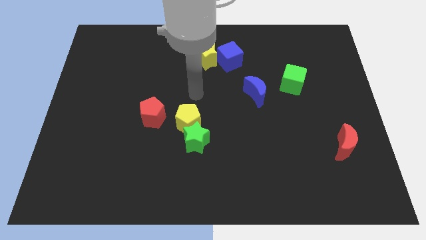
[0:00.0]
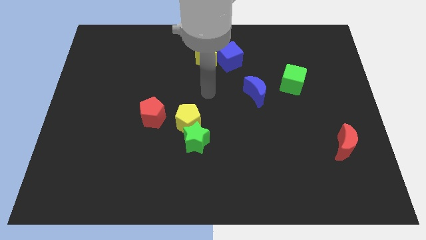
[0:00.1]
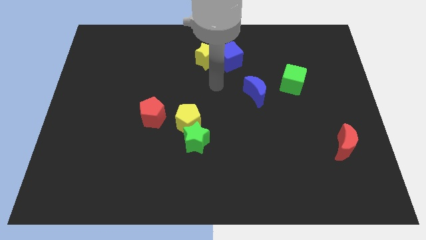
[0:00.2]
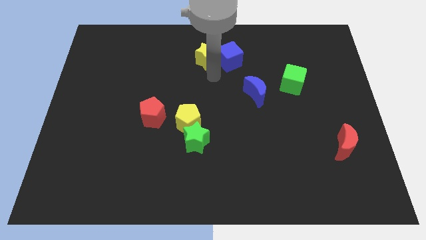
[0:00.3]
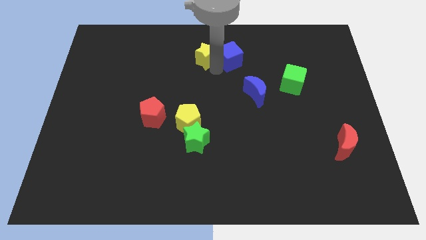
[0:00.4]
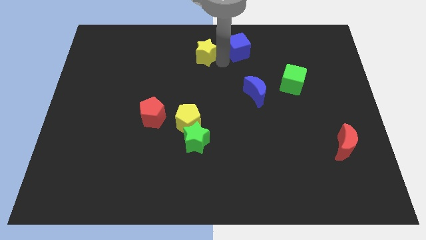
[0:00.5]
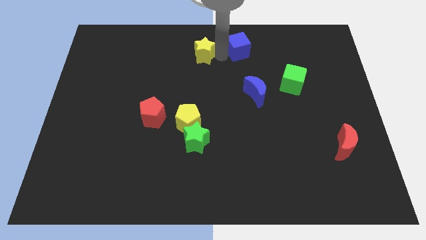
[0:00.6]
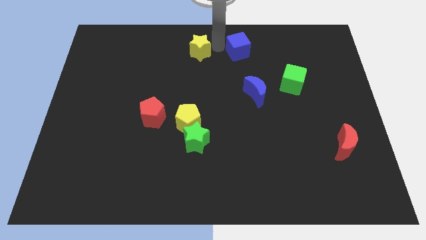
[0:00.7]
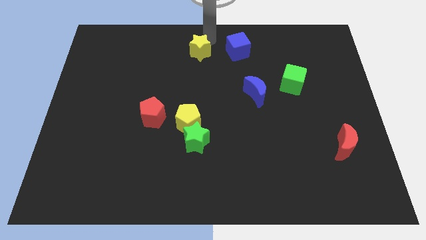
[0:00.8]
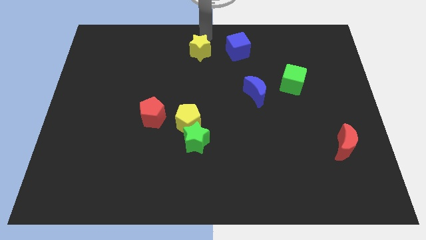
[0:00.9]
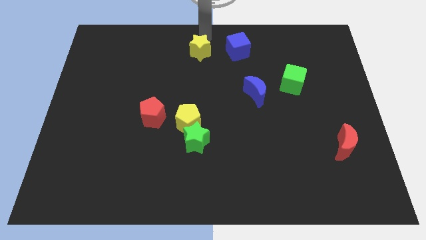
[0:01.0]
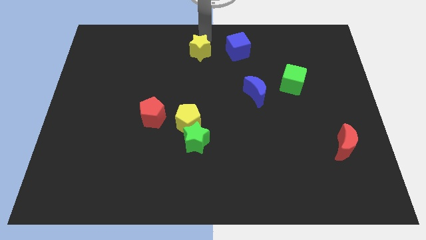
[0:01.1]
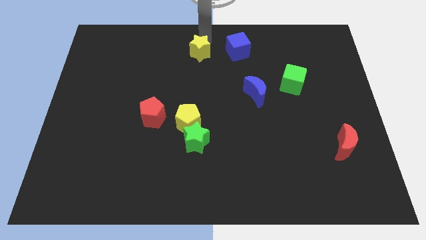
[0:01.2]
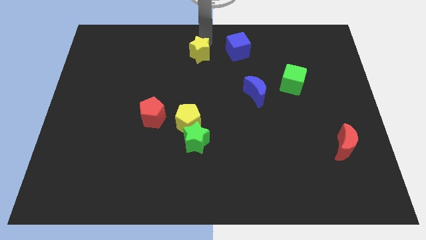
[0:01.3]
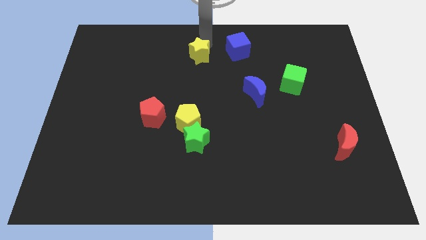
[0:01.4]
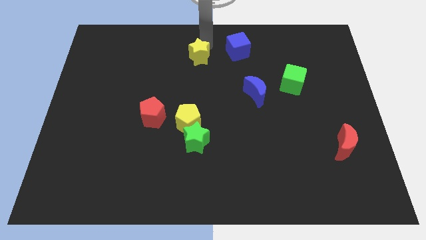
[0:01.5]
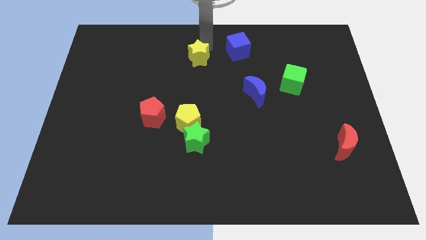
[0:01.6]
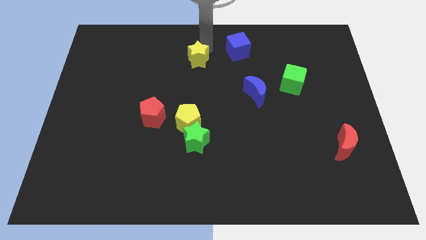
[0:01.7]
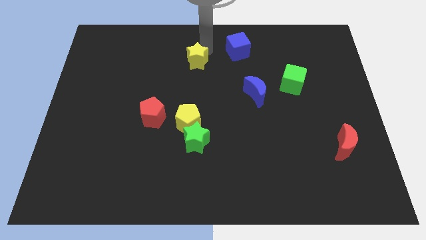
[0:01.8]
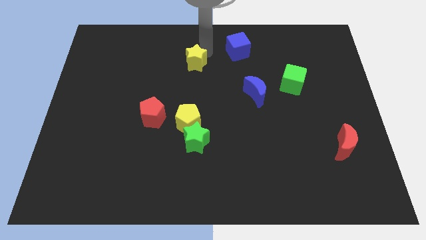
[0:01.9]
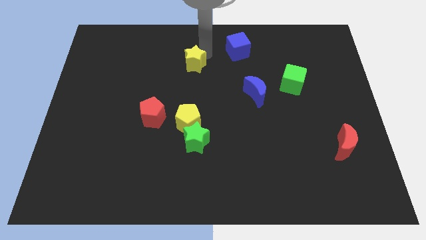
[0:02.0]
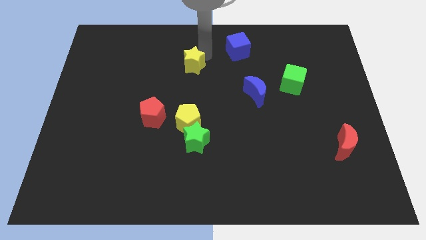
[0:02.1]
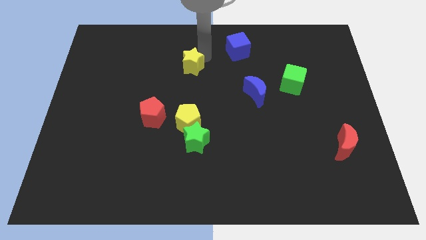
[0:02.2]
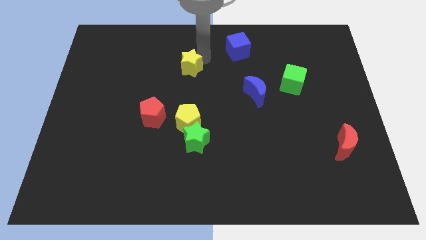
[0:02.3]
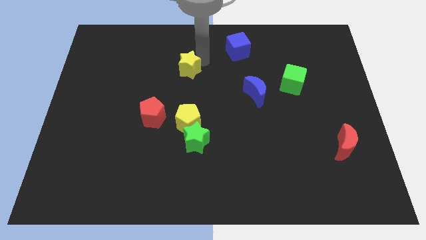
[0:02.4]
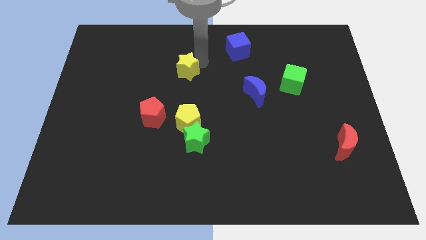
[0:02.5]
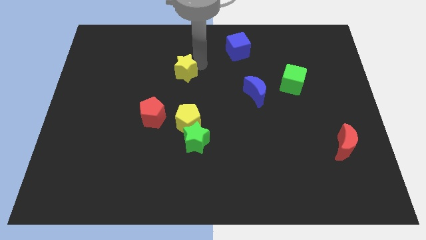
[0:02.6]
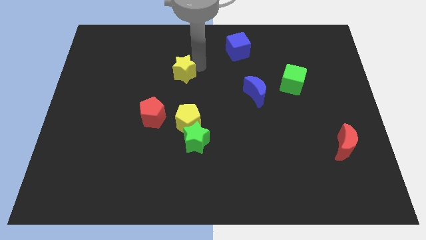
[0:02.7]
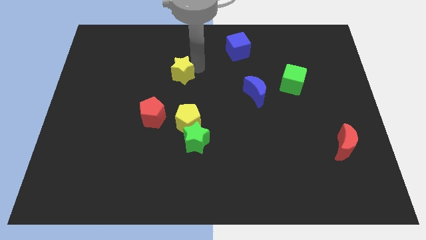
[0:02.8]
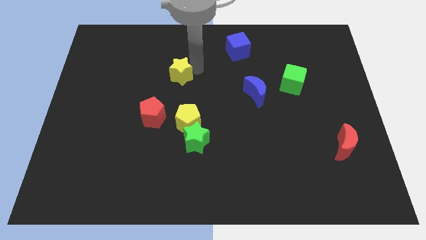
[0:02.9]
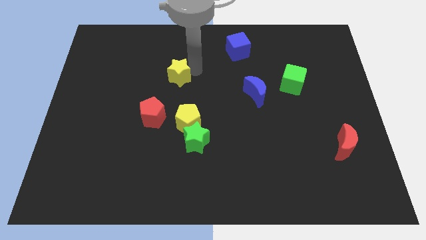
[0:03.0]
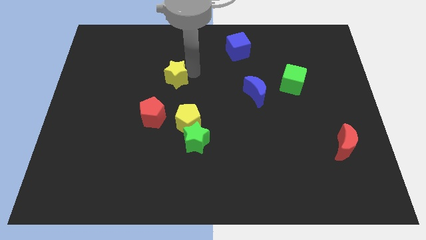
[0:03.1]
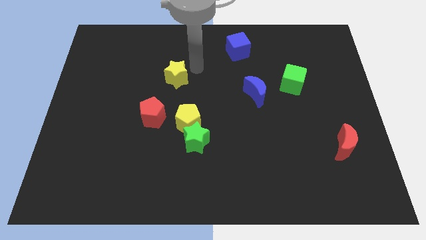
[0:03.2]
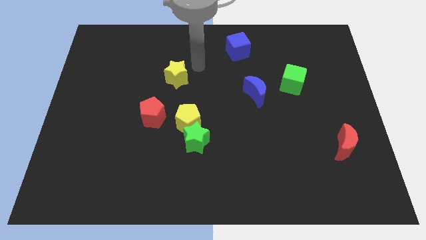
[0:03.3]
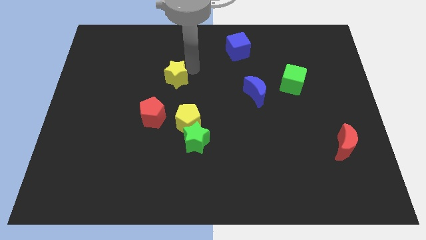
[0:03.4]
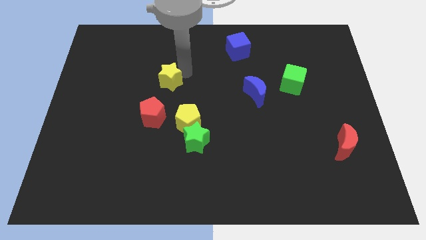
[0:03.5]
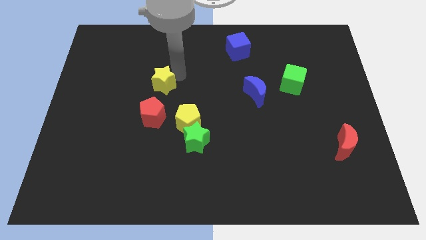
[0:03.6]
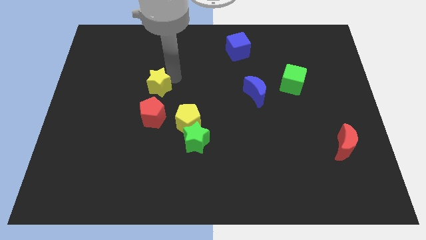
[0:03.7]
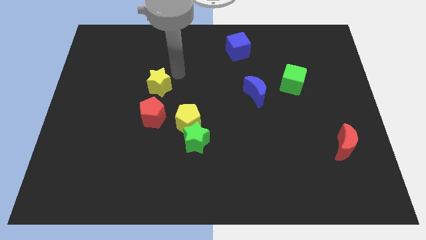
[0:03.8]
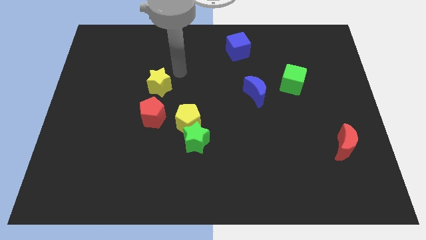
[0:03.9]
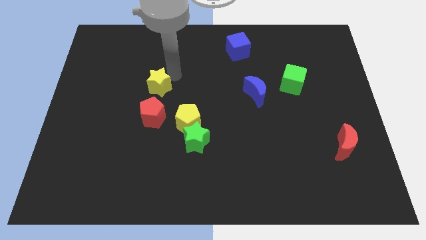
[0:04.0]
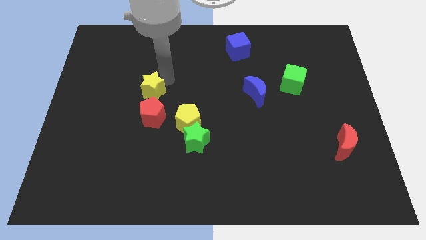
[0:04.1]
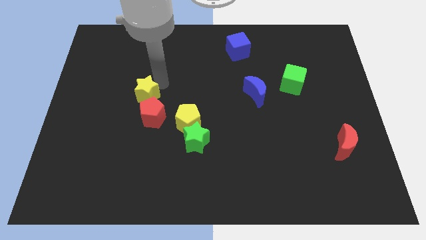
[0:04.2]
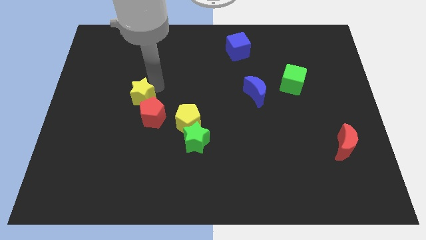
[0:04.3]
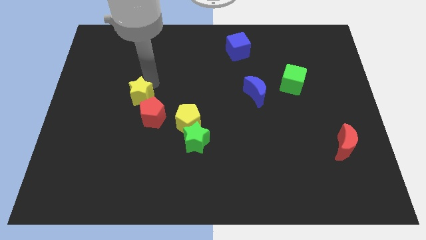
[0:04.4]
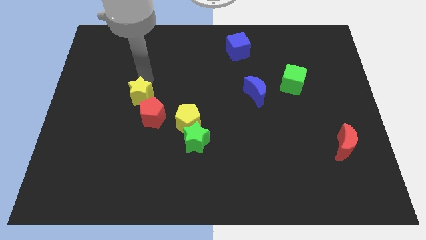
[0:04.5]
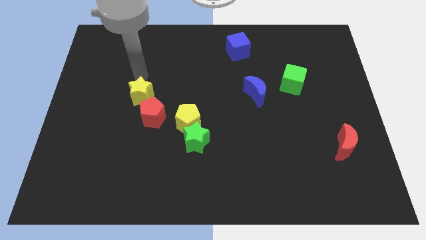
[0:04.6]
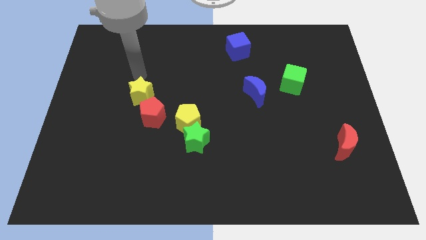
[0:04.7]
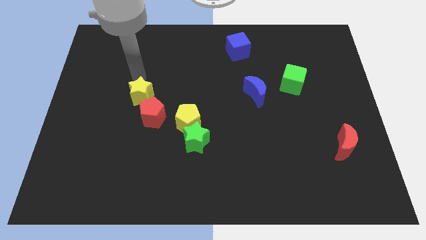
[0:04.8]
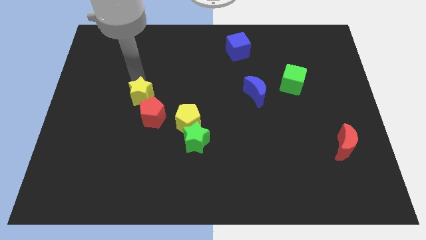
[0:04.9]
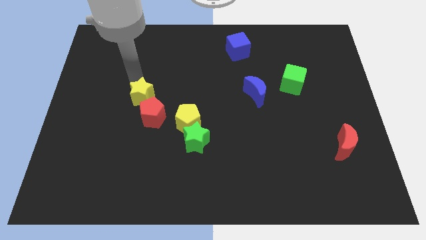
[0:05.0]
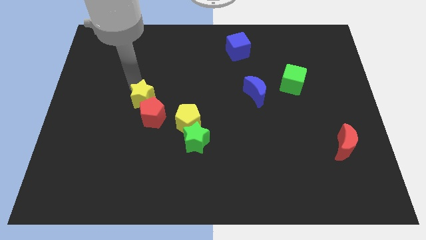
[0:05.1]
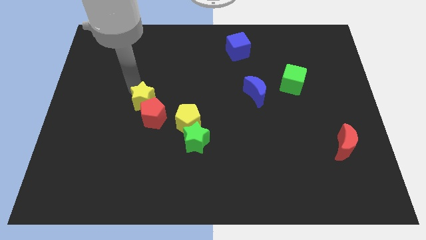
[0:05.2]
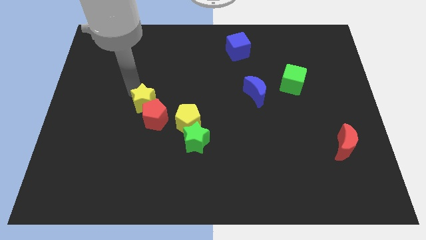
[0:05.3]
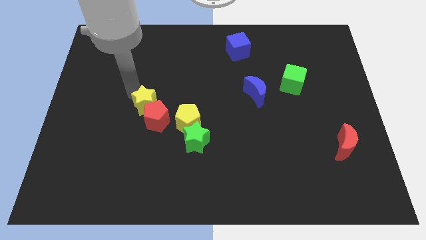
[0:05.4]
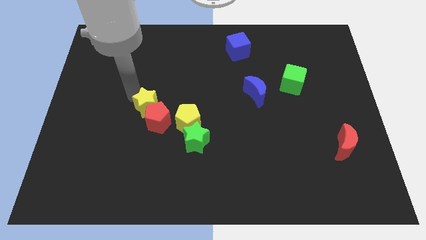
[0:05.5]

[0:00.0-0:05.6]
push the yellow star just left of the yellow pentagon

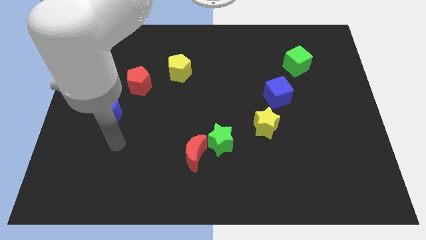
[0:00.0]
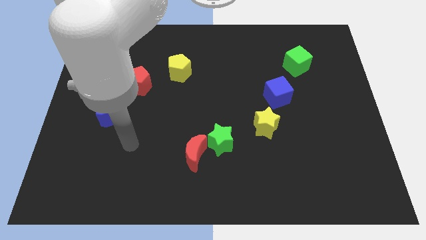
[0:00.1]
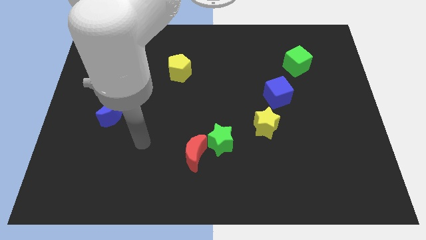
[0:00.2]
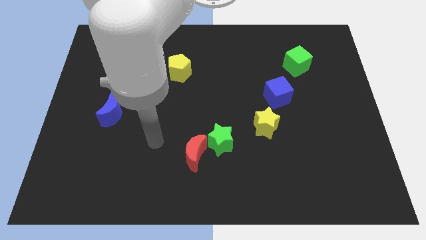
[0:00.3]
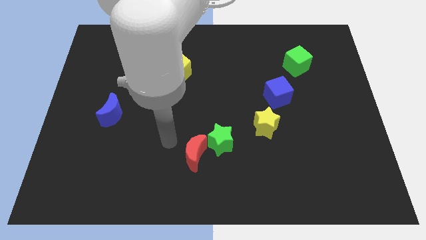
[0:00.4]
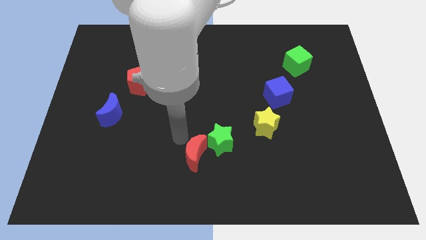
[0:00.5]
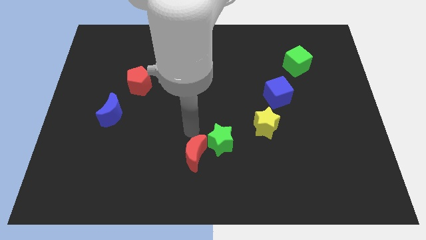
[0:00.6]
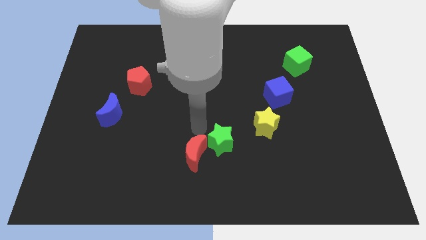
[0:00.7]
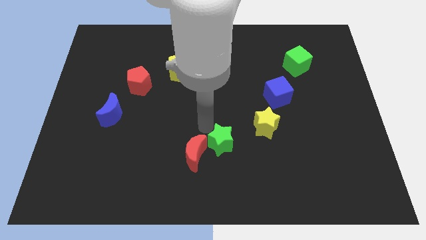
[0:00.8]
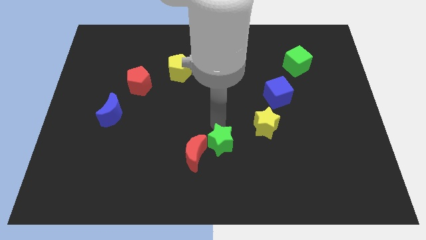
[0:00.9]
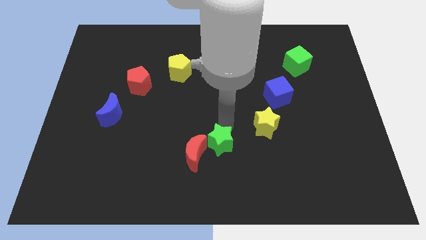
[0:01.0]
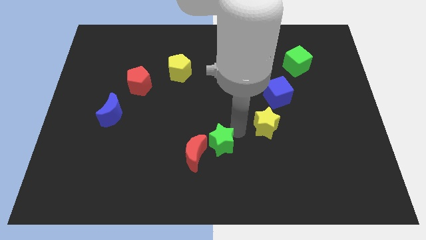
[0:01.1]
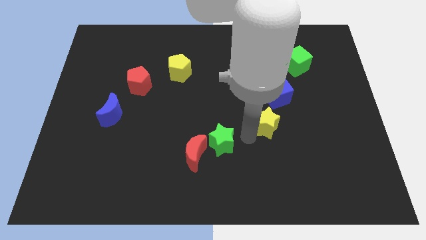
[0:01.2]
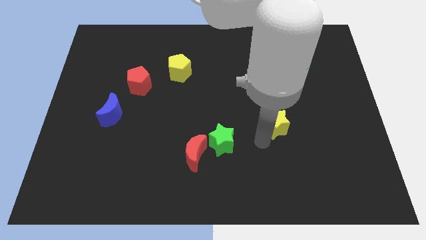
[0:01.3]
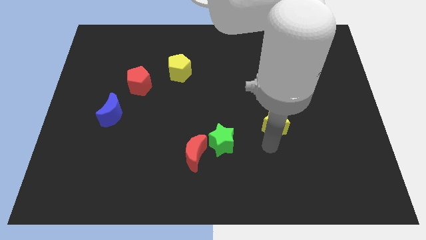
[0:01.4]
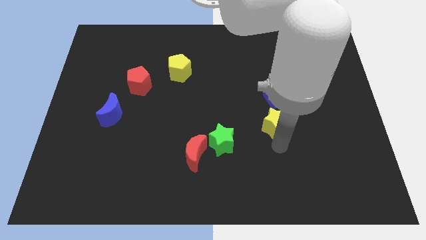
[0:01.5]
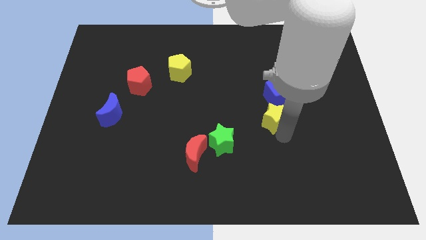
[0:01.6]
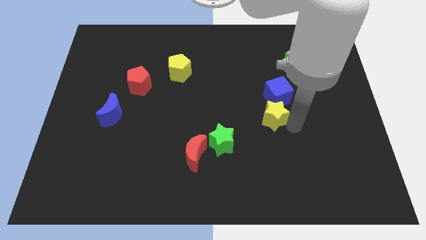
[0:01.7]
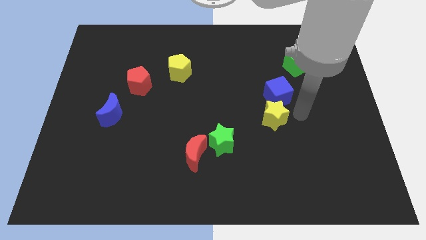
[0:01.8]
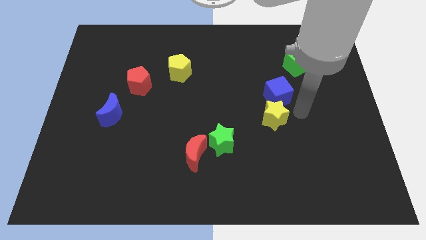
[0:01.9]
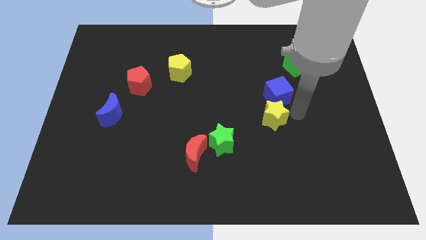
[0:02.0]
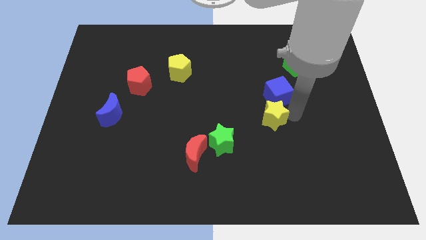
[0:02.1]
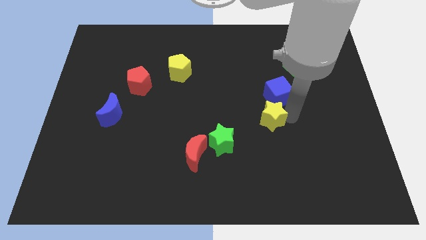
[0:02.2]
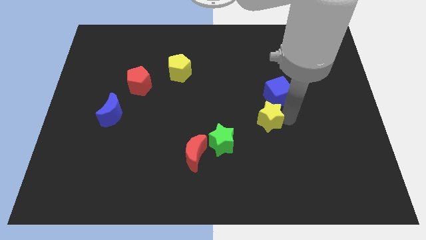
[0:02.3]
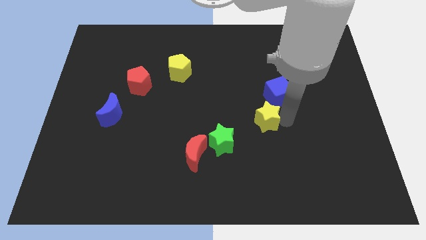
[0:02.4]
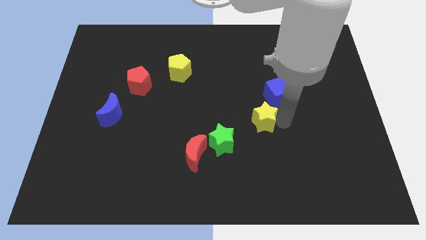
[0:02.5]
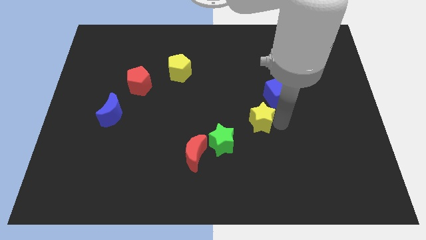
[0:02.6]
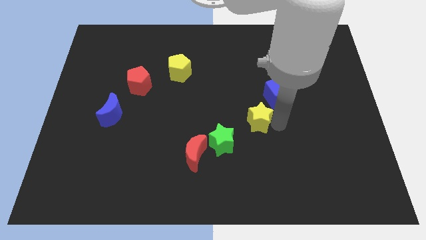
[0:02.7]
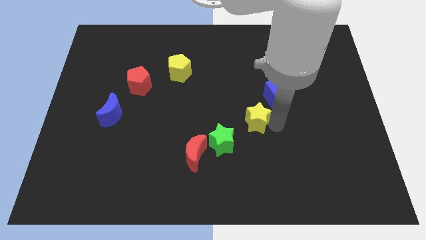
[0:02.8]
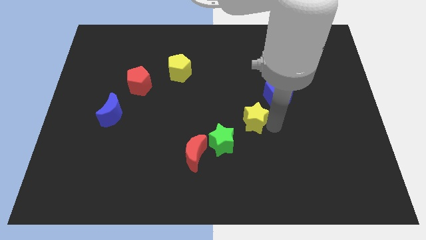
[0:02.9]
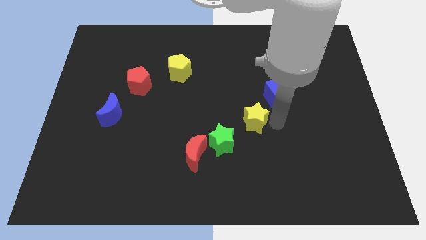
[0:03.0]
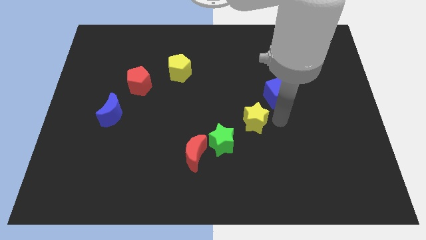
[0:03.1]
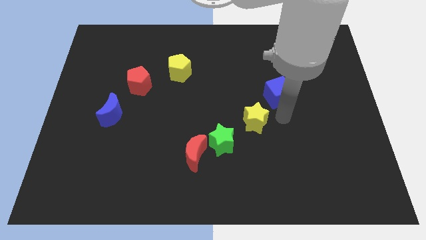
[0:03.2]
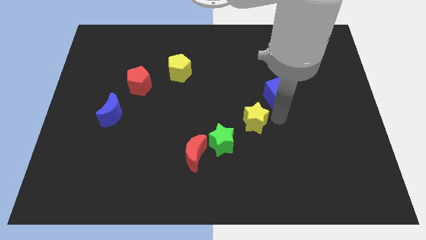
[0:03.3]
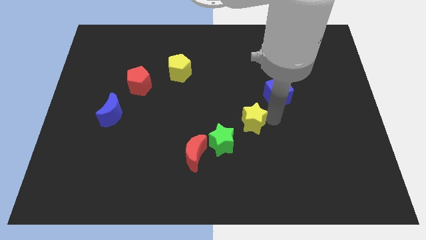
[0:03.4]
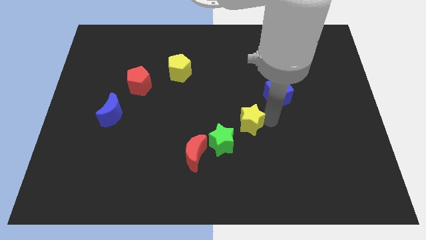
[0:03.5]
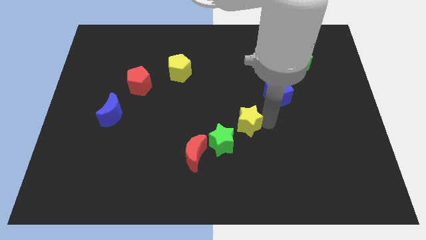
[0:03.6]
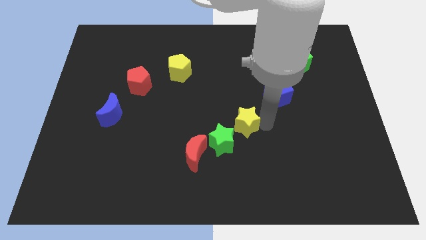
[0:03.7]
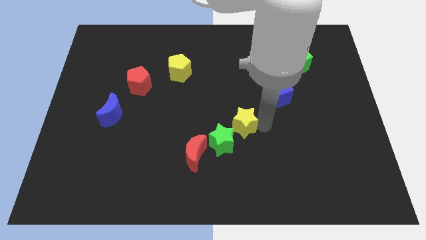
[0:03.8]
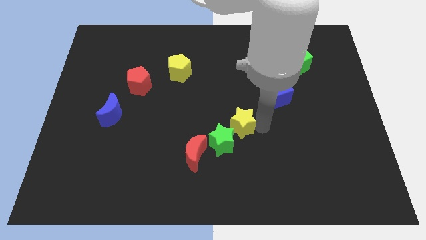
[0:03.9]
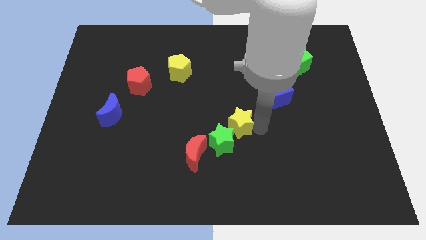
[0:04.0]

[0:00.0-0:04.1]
put the yellow star to the top of the green star
